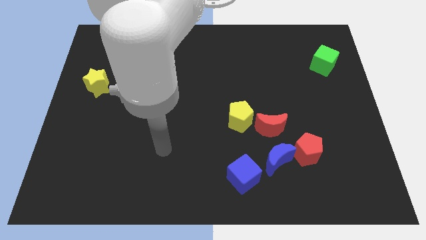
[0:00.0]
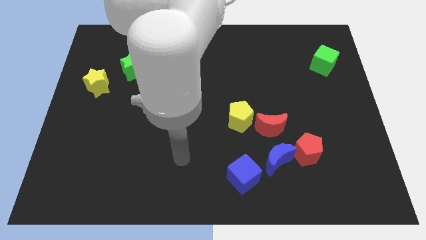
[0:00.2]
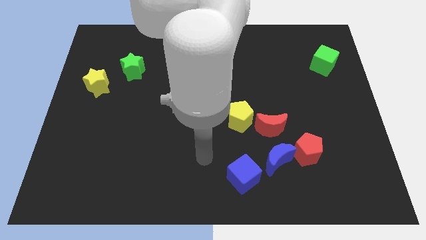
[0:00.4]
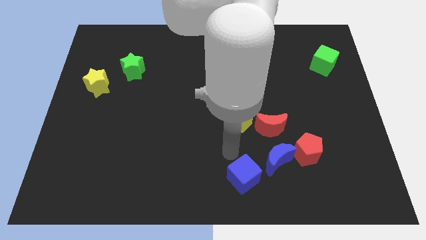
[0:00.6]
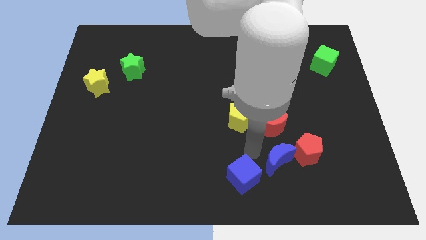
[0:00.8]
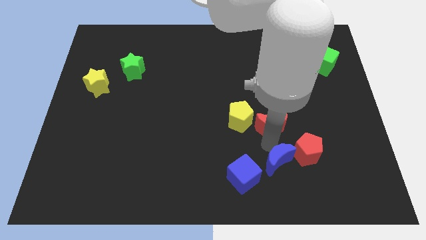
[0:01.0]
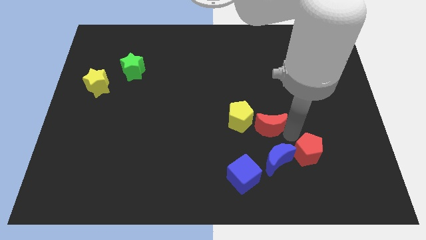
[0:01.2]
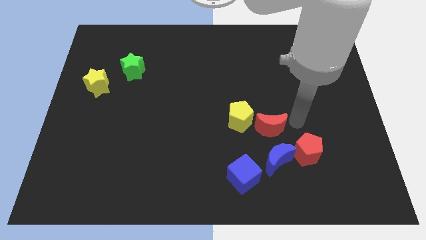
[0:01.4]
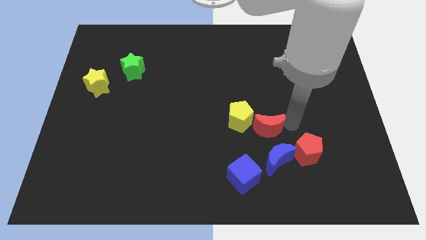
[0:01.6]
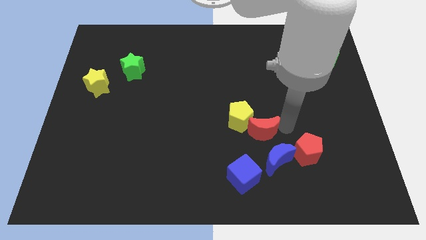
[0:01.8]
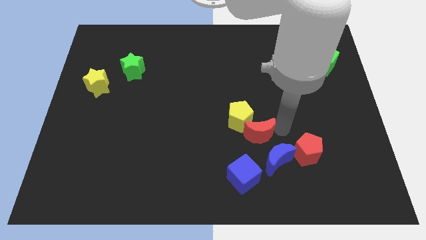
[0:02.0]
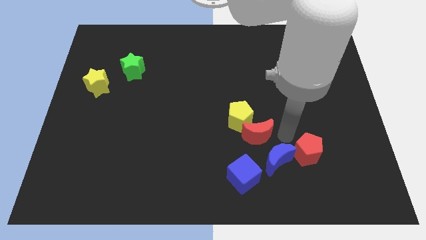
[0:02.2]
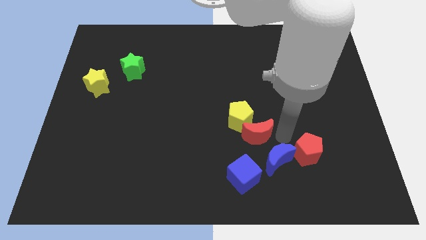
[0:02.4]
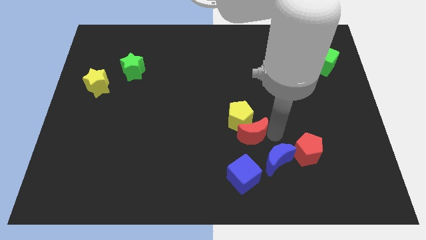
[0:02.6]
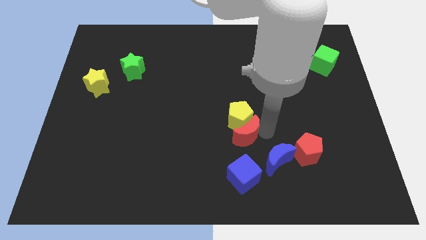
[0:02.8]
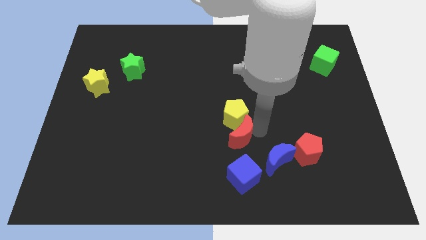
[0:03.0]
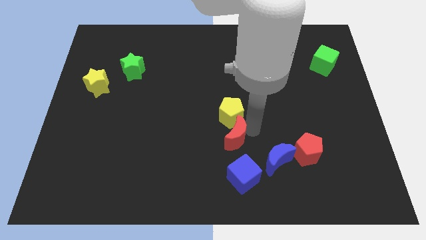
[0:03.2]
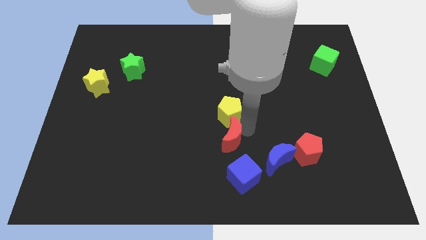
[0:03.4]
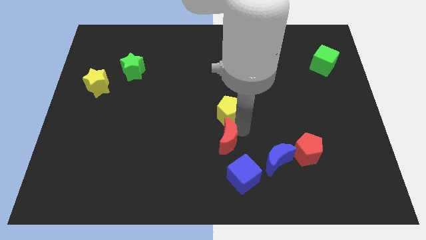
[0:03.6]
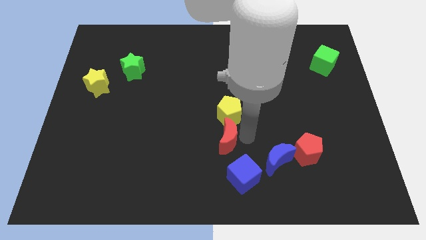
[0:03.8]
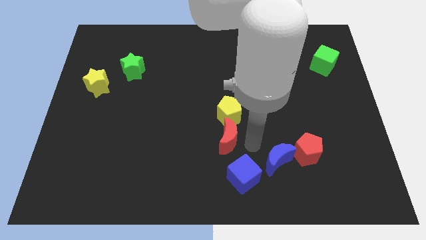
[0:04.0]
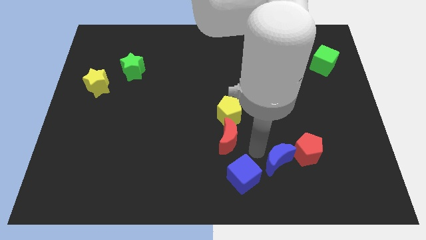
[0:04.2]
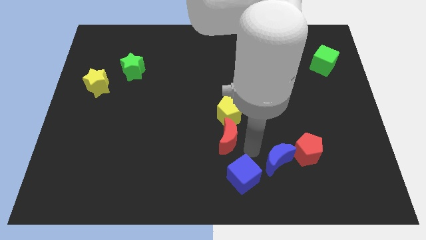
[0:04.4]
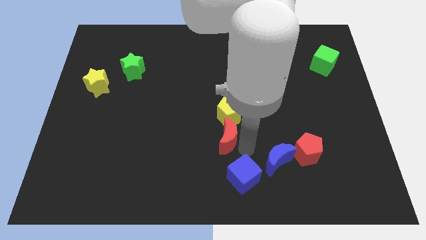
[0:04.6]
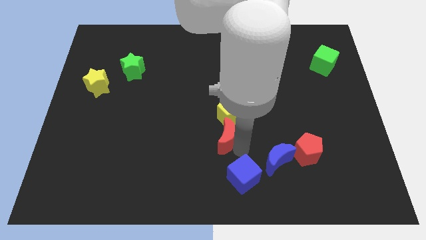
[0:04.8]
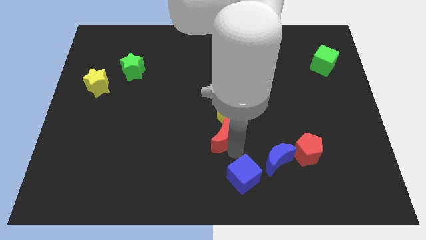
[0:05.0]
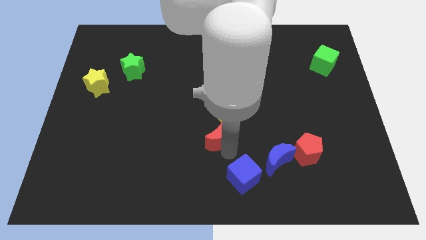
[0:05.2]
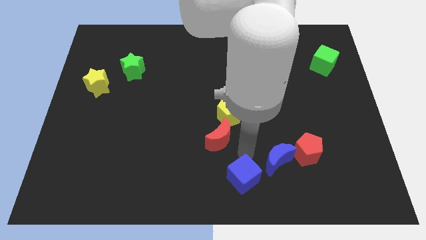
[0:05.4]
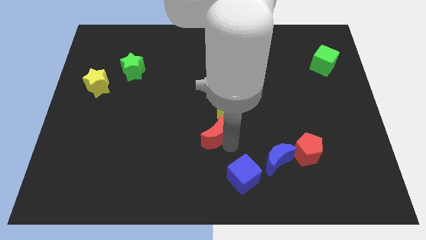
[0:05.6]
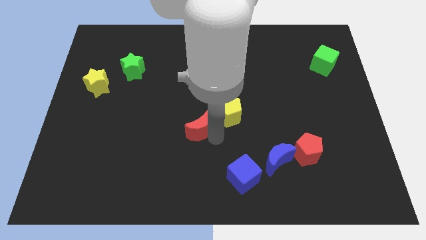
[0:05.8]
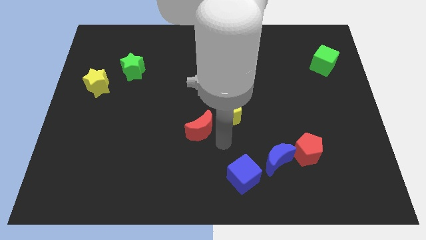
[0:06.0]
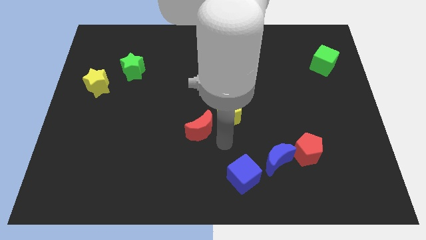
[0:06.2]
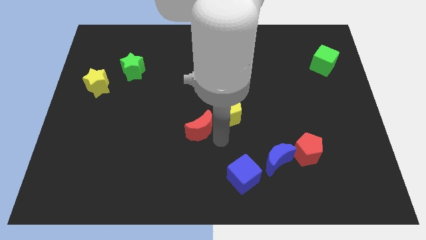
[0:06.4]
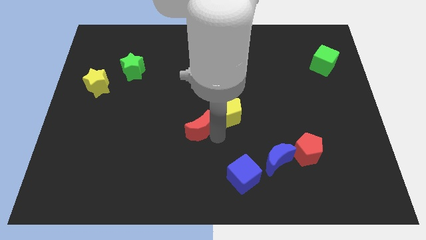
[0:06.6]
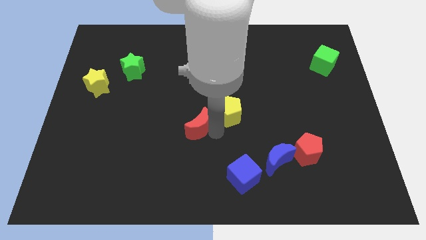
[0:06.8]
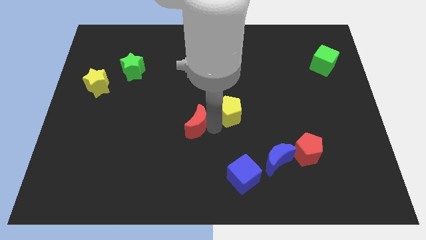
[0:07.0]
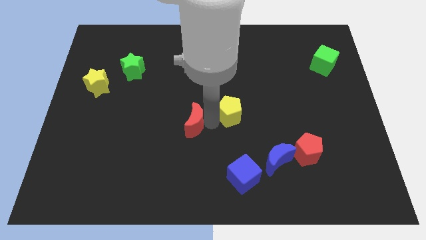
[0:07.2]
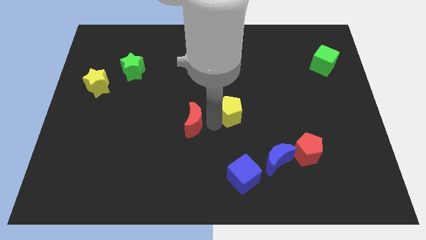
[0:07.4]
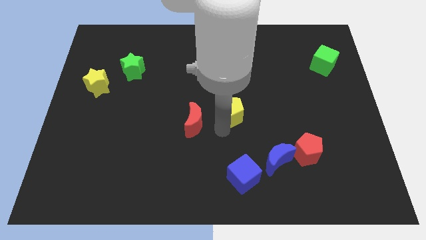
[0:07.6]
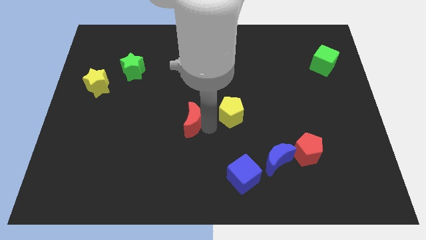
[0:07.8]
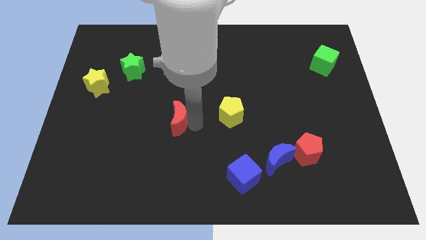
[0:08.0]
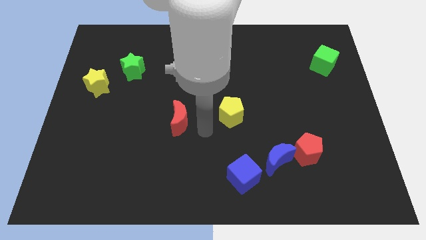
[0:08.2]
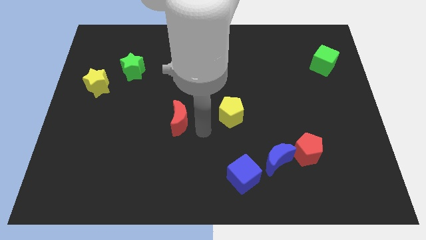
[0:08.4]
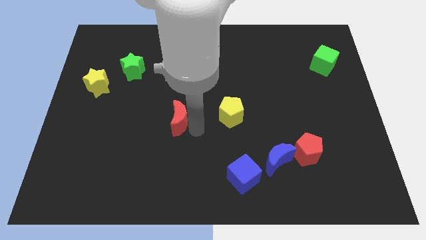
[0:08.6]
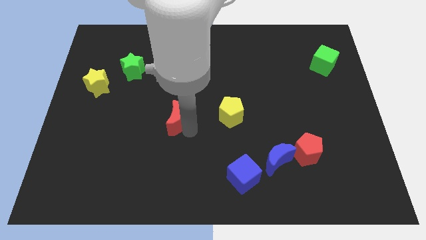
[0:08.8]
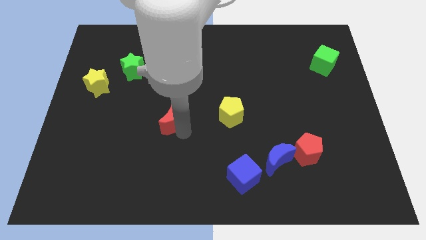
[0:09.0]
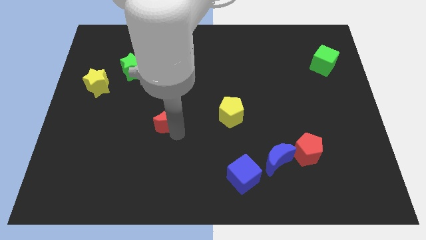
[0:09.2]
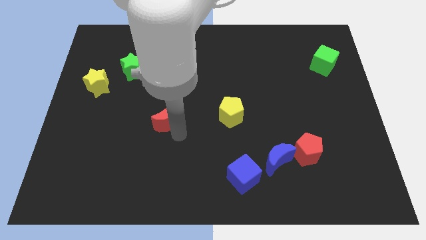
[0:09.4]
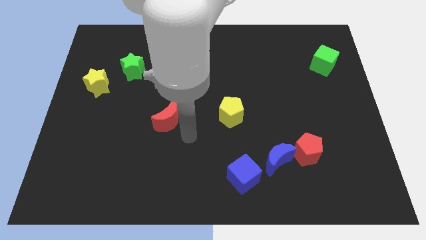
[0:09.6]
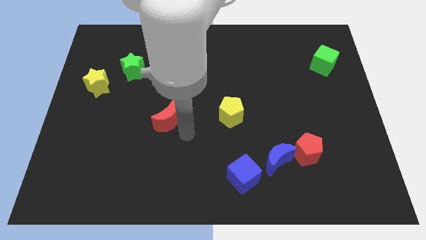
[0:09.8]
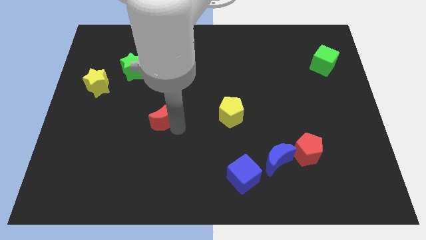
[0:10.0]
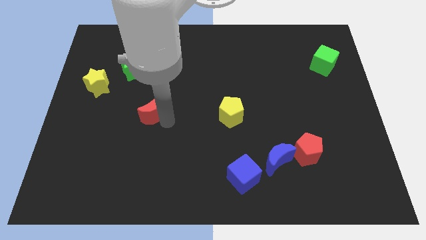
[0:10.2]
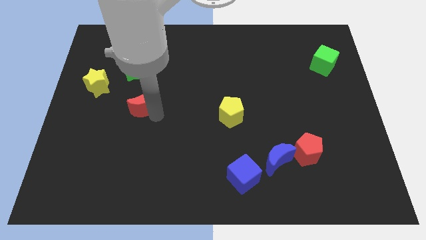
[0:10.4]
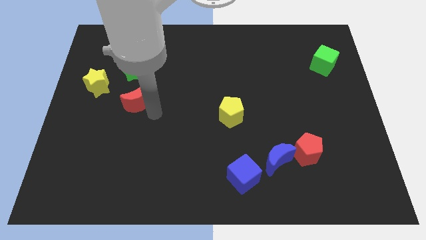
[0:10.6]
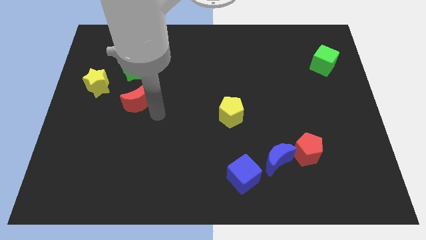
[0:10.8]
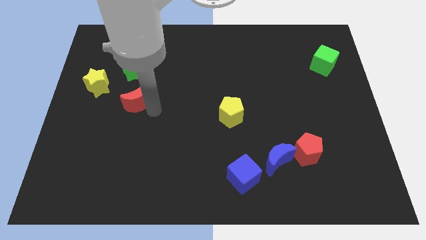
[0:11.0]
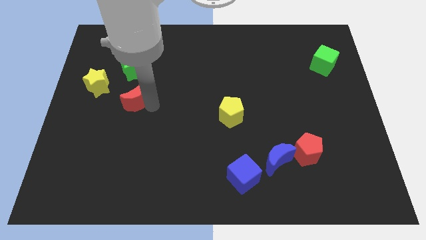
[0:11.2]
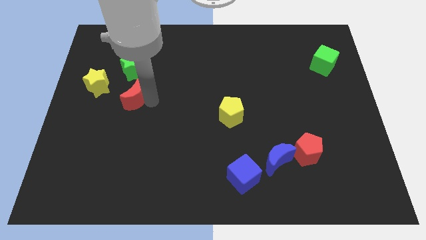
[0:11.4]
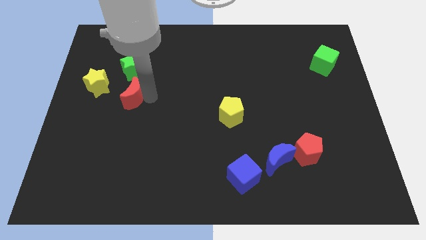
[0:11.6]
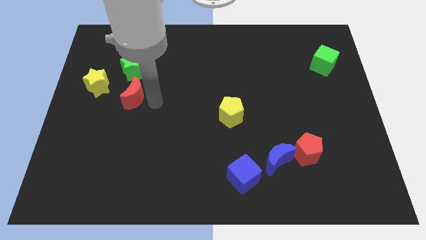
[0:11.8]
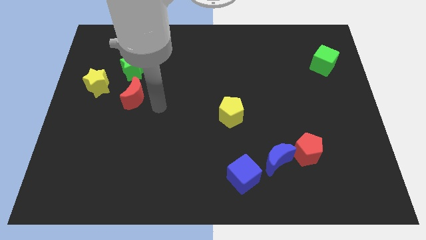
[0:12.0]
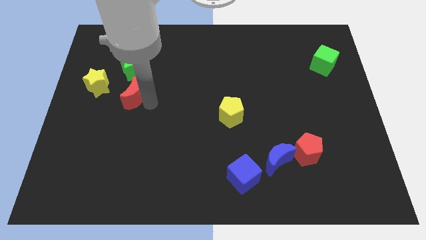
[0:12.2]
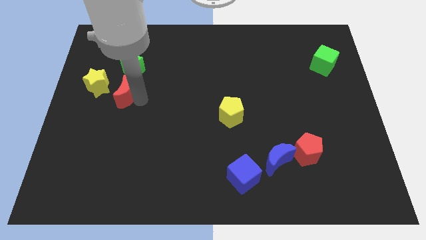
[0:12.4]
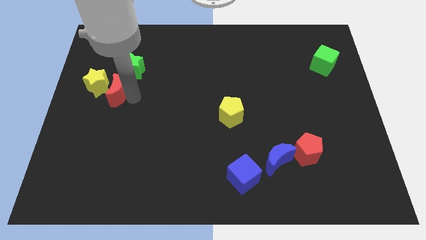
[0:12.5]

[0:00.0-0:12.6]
push the red moon towards the yellow star

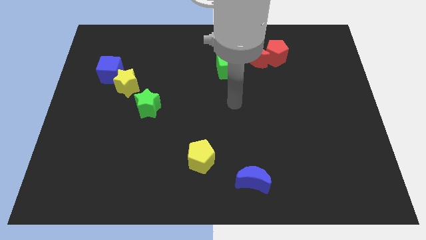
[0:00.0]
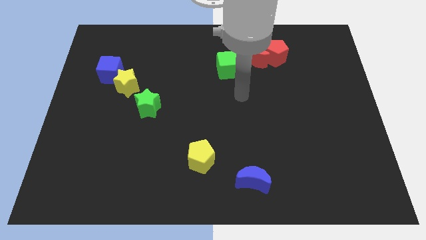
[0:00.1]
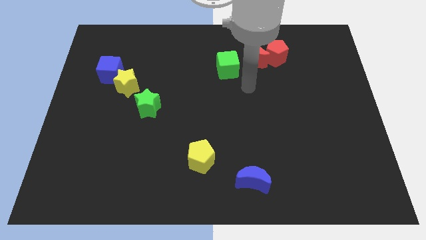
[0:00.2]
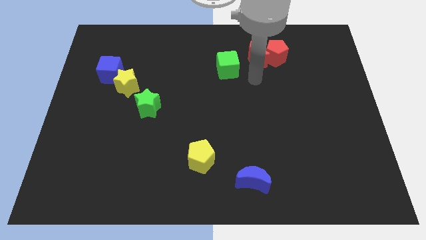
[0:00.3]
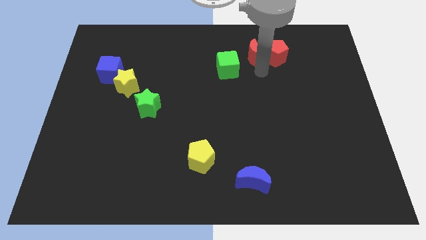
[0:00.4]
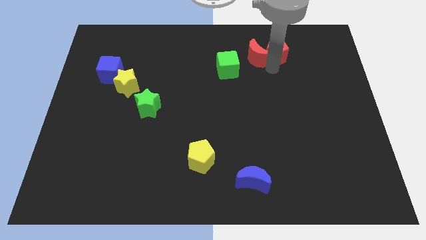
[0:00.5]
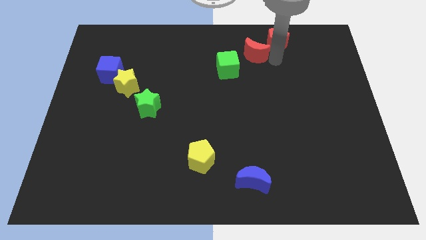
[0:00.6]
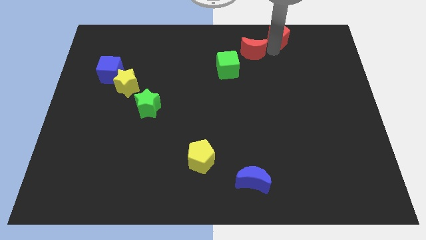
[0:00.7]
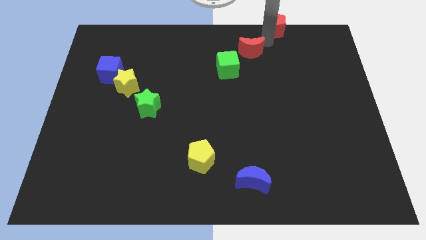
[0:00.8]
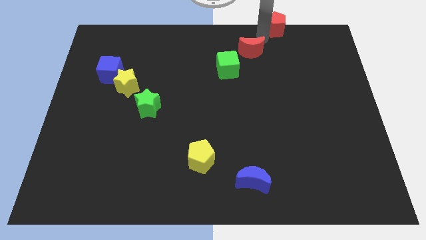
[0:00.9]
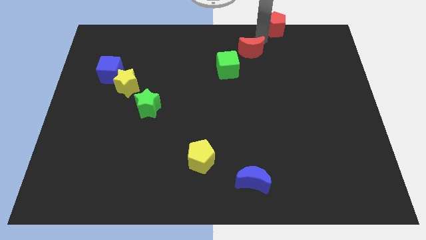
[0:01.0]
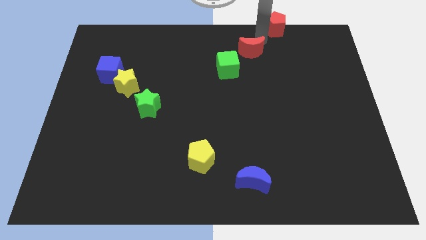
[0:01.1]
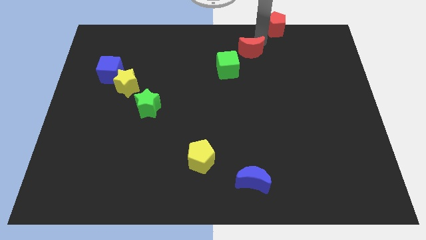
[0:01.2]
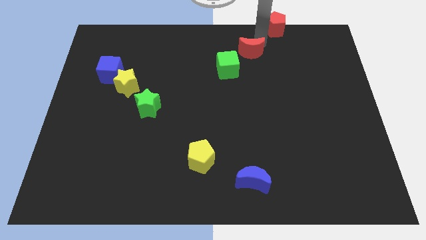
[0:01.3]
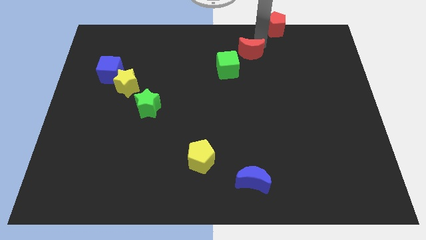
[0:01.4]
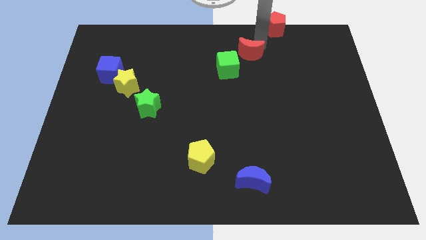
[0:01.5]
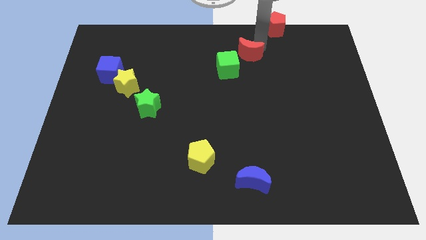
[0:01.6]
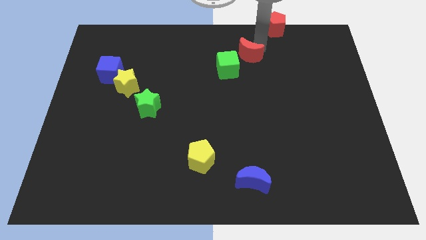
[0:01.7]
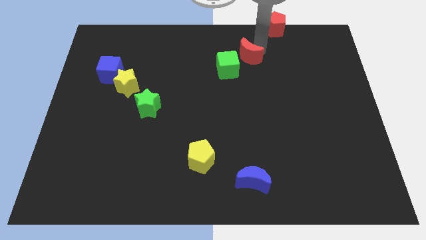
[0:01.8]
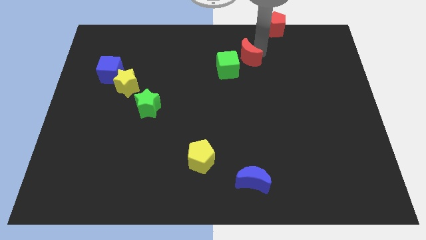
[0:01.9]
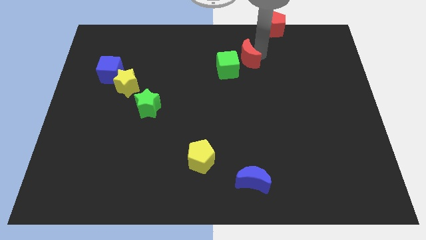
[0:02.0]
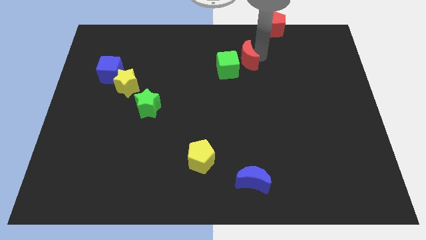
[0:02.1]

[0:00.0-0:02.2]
move the red moon to the green cube
